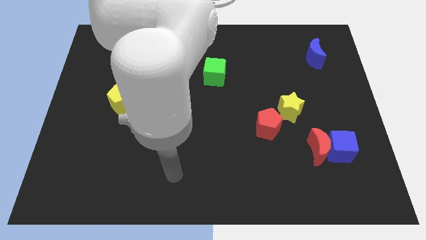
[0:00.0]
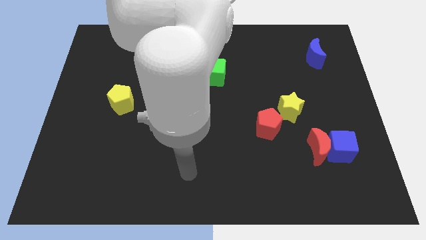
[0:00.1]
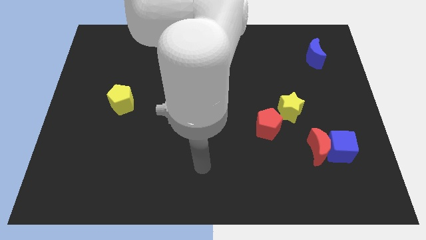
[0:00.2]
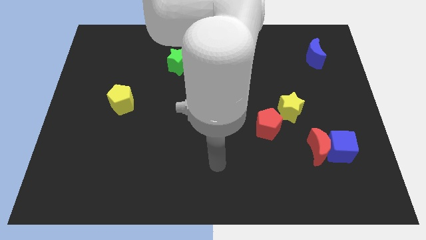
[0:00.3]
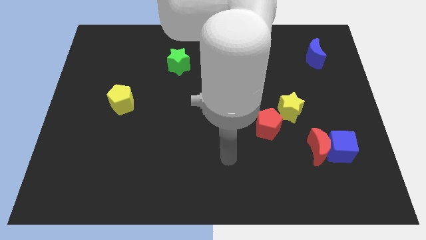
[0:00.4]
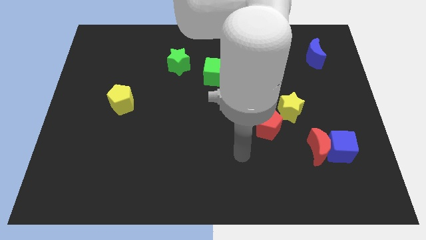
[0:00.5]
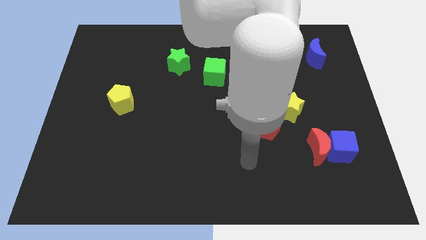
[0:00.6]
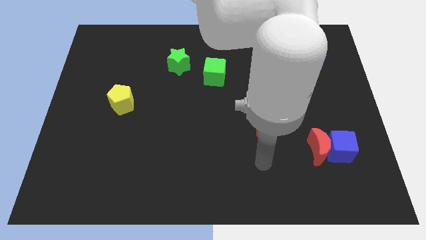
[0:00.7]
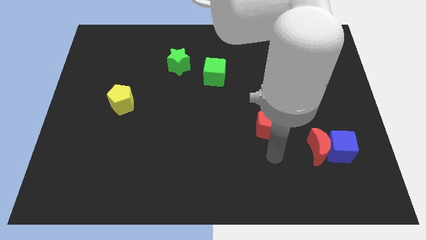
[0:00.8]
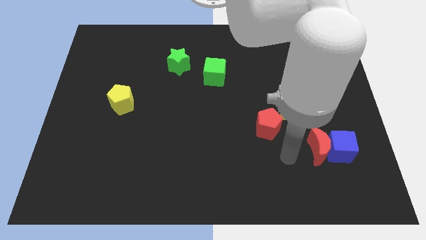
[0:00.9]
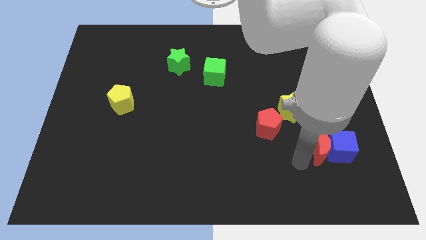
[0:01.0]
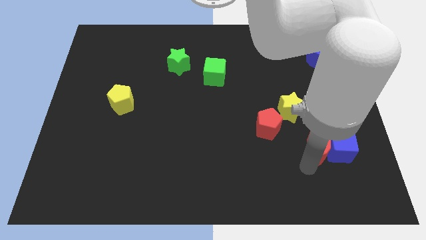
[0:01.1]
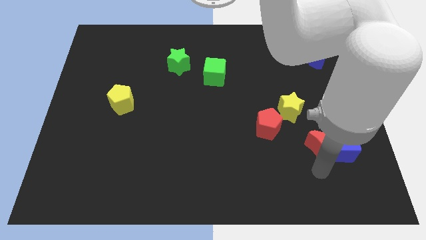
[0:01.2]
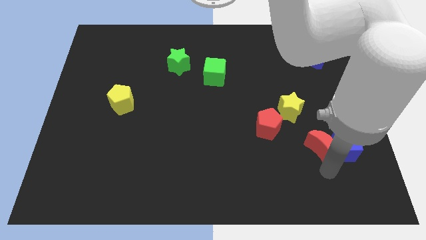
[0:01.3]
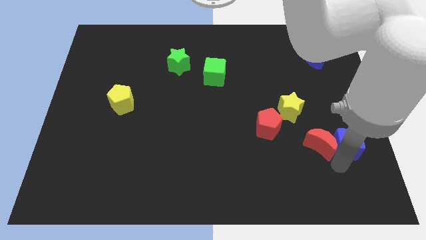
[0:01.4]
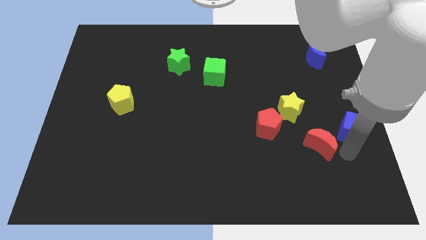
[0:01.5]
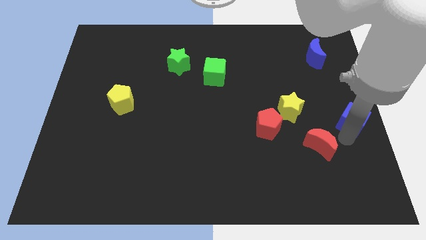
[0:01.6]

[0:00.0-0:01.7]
move the red moon away from the blue cube

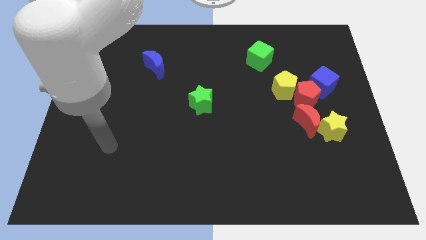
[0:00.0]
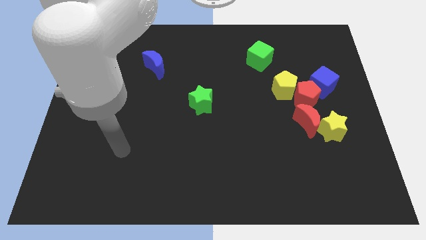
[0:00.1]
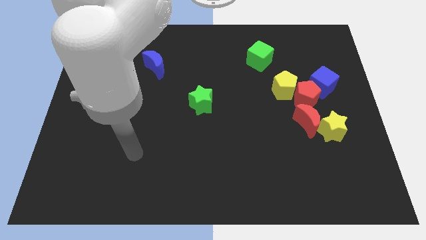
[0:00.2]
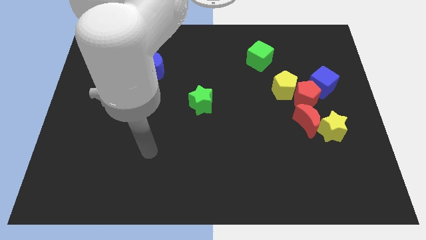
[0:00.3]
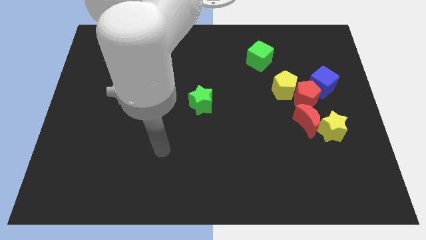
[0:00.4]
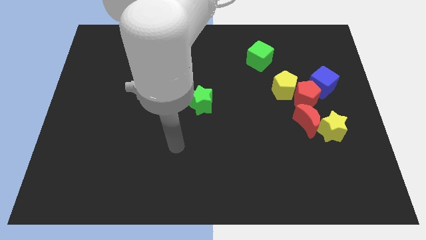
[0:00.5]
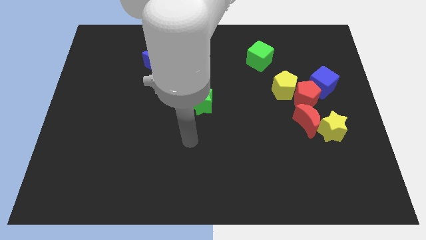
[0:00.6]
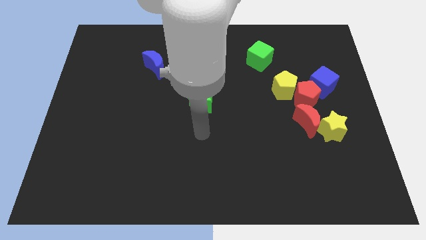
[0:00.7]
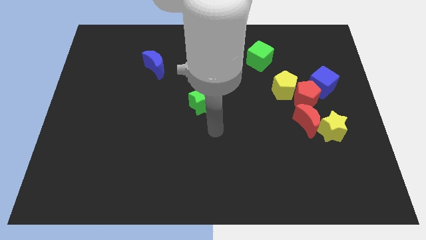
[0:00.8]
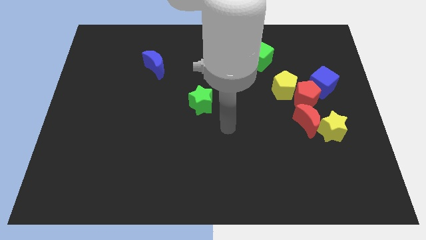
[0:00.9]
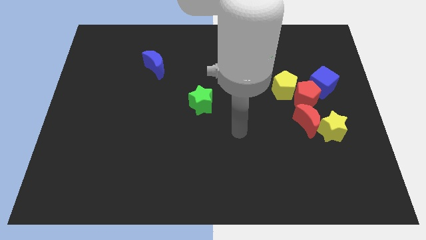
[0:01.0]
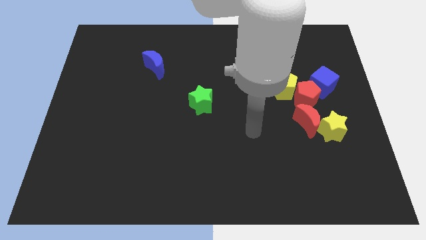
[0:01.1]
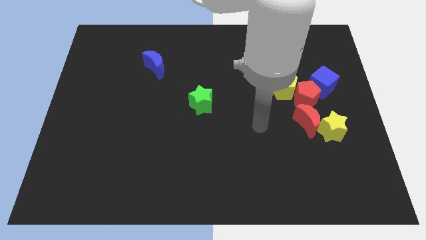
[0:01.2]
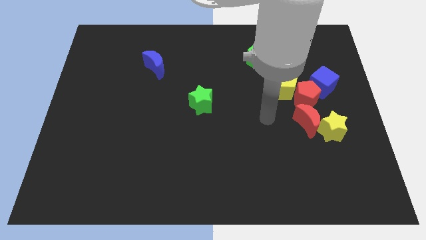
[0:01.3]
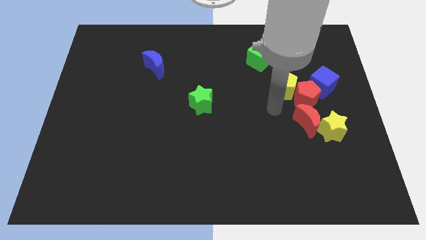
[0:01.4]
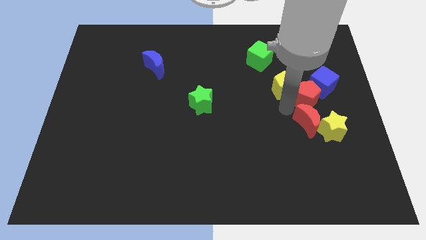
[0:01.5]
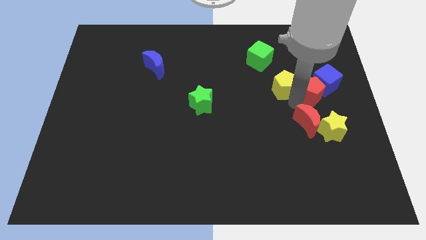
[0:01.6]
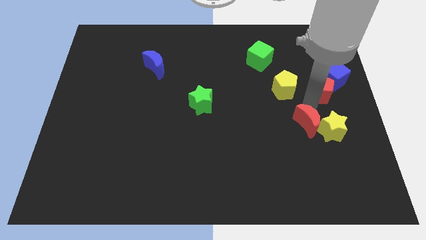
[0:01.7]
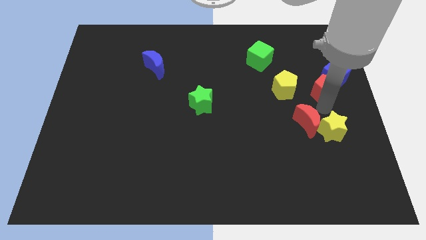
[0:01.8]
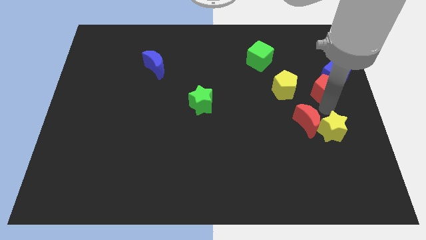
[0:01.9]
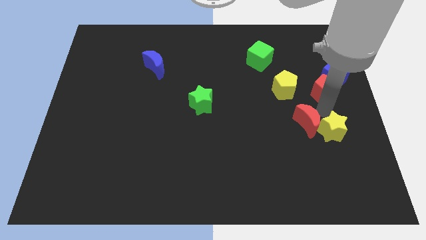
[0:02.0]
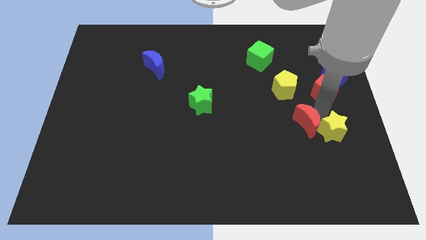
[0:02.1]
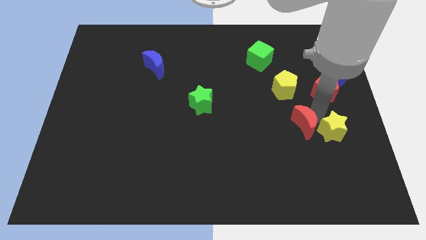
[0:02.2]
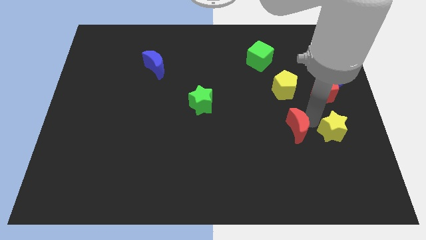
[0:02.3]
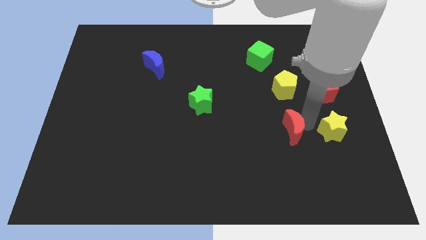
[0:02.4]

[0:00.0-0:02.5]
move the red moon away from the yellow star and red pentagon

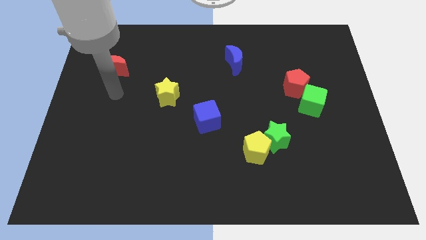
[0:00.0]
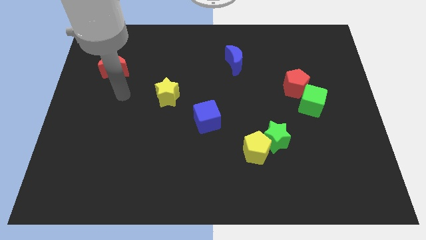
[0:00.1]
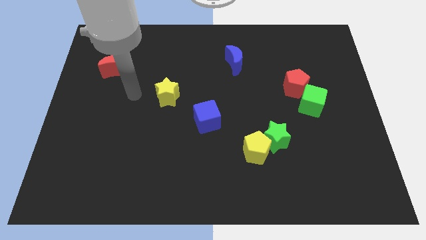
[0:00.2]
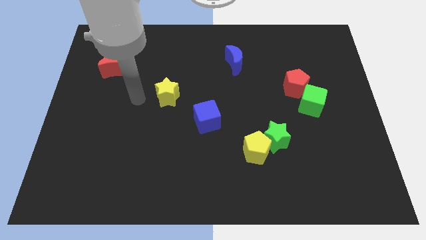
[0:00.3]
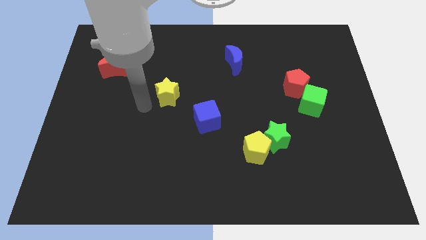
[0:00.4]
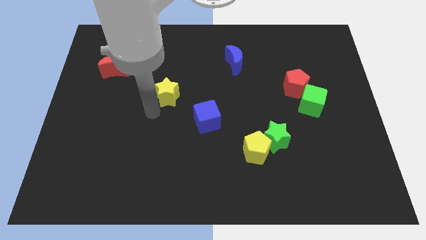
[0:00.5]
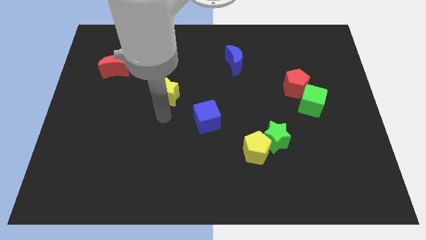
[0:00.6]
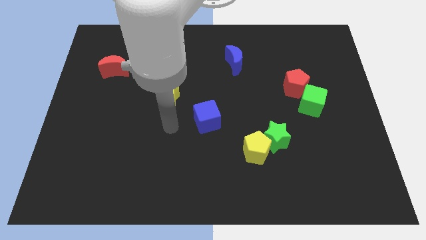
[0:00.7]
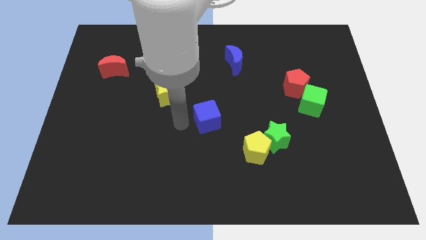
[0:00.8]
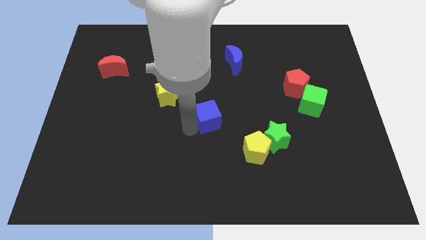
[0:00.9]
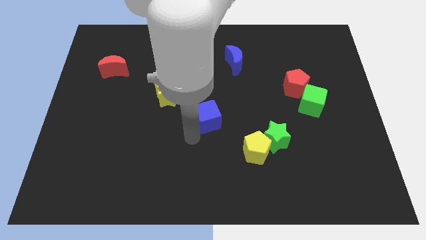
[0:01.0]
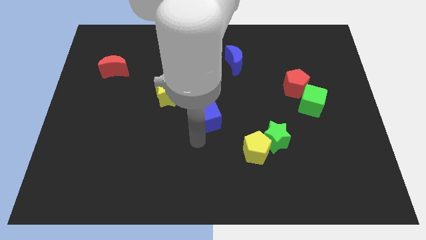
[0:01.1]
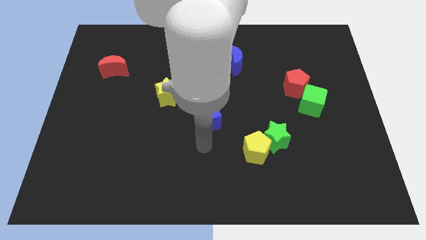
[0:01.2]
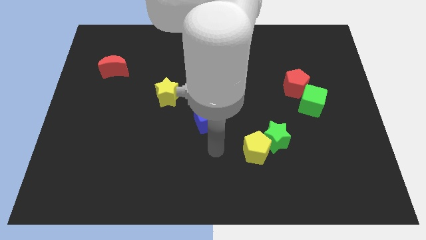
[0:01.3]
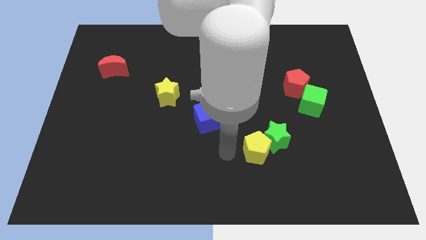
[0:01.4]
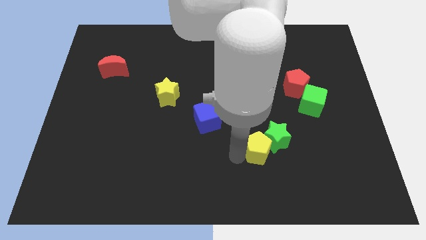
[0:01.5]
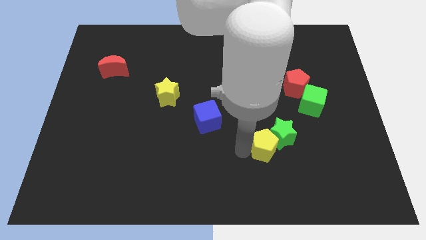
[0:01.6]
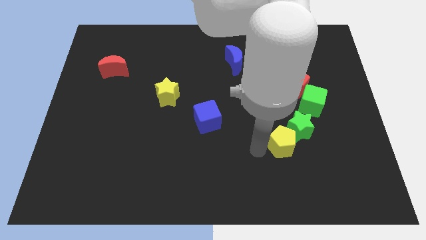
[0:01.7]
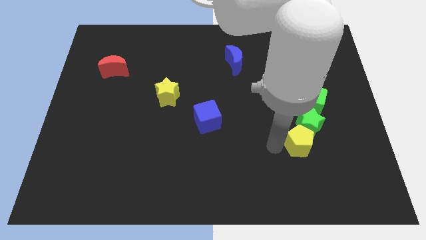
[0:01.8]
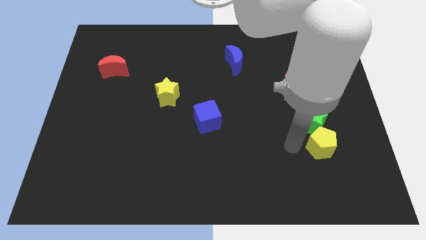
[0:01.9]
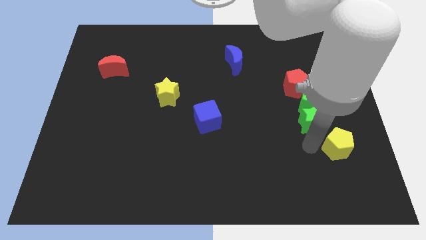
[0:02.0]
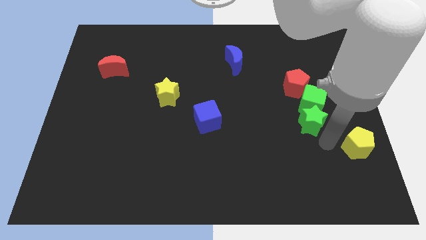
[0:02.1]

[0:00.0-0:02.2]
separate the green star from the yellow pentagon

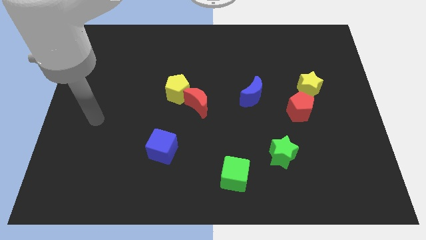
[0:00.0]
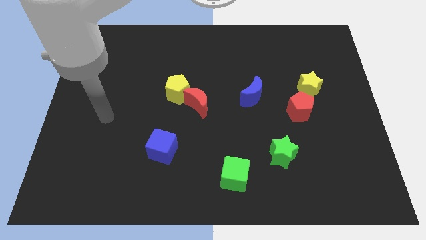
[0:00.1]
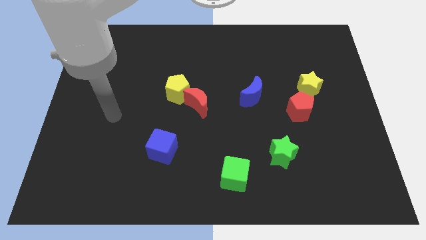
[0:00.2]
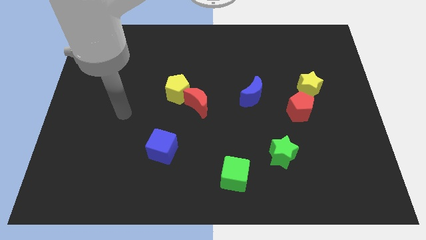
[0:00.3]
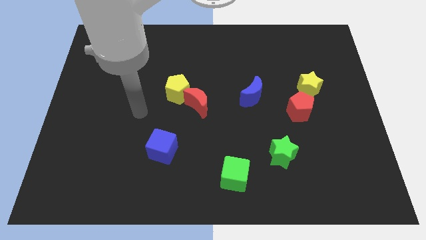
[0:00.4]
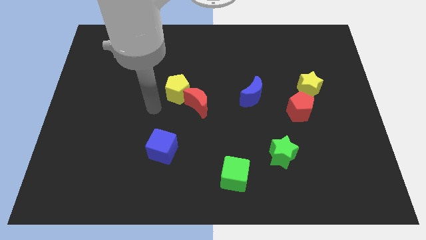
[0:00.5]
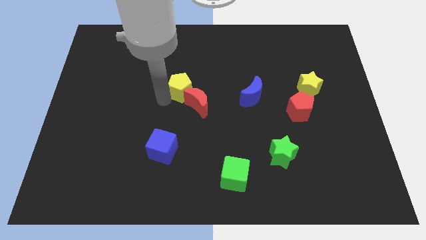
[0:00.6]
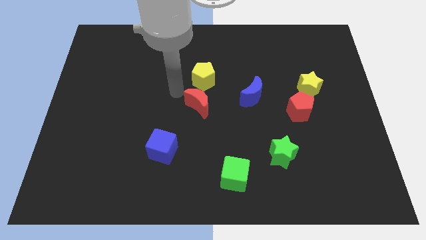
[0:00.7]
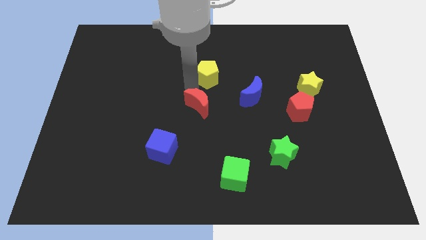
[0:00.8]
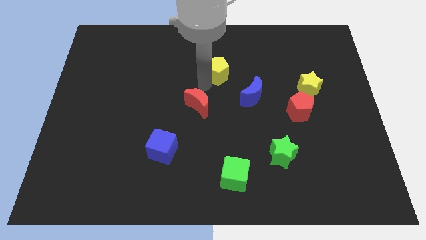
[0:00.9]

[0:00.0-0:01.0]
move the red moon away from the yellow pentagon

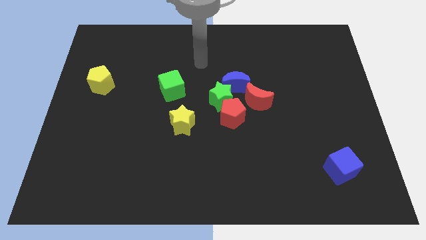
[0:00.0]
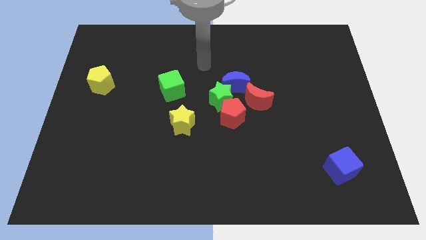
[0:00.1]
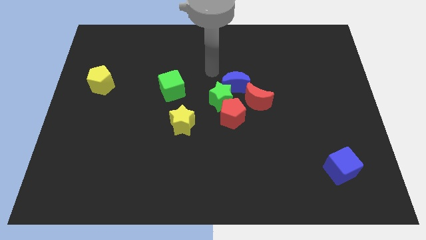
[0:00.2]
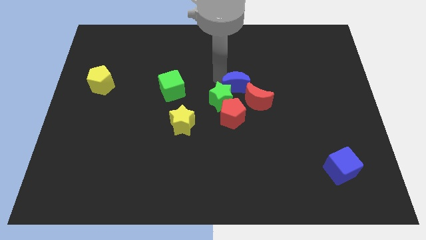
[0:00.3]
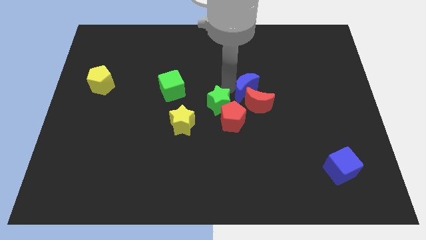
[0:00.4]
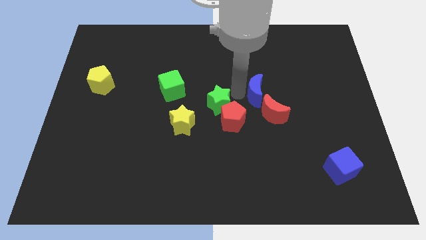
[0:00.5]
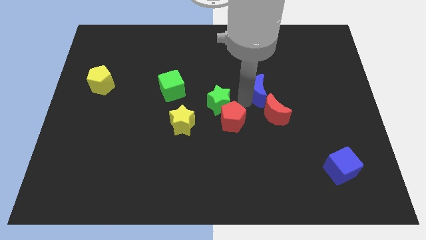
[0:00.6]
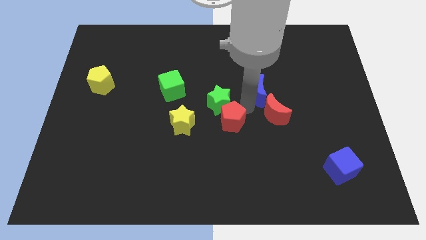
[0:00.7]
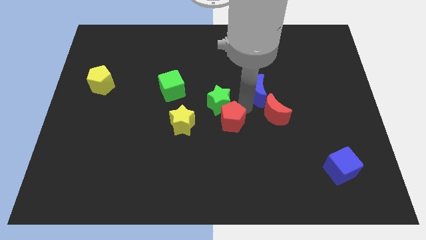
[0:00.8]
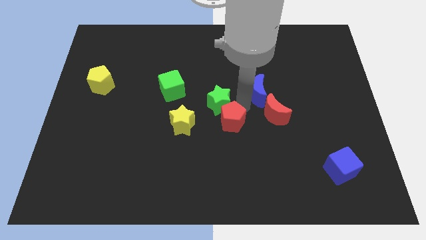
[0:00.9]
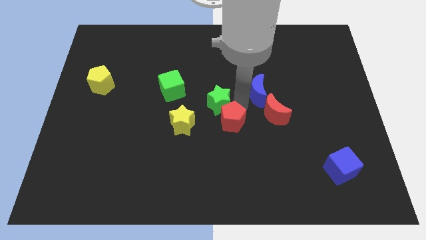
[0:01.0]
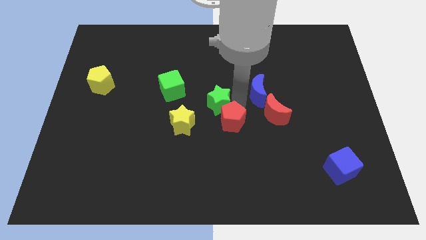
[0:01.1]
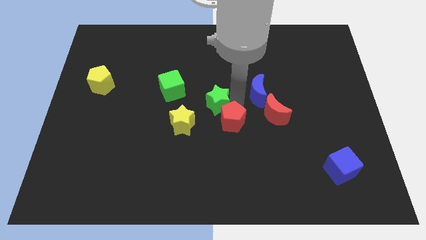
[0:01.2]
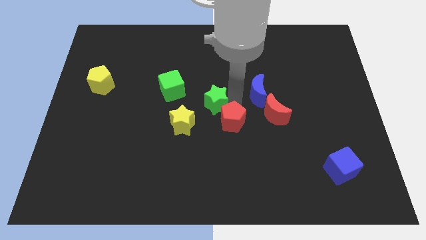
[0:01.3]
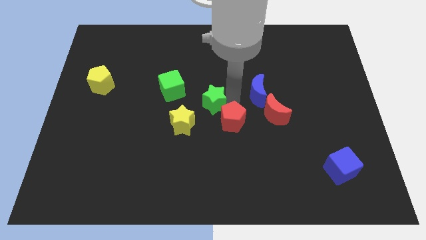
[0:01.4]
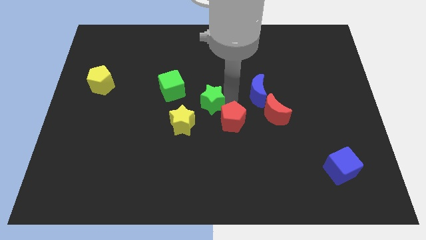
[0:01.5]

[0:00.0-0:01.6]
move the green star away from the group of blocks

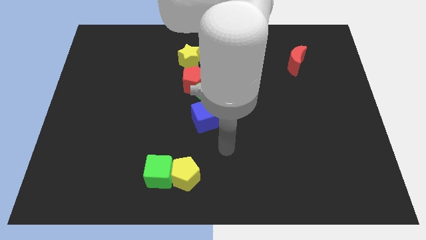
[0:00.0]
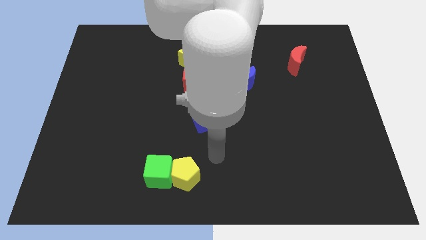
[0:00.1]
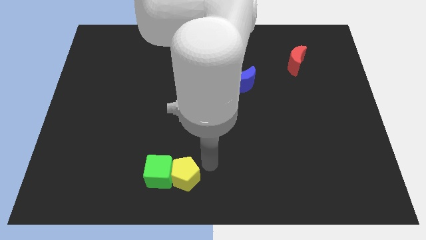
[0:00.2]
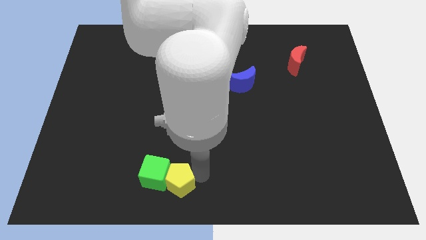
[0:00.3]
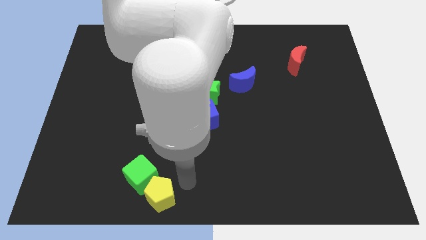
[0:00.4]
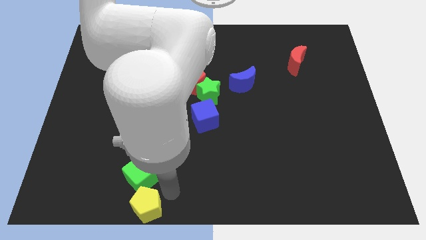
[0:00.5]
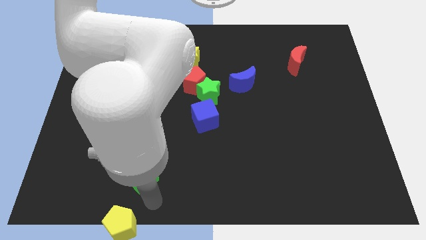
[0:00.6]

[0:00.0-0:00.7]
separate the green cube from the yellow pentagon
